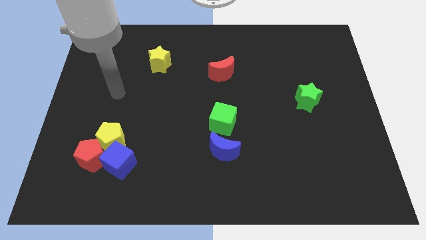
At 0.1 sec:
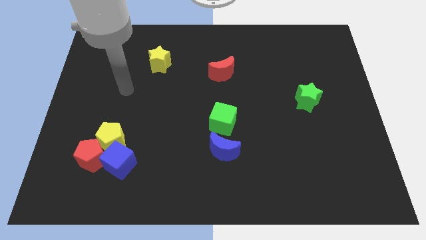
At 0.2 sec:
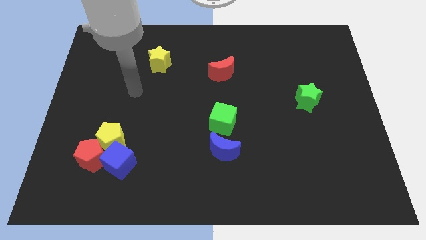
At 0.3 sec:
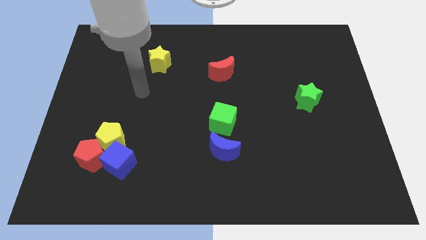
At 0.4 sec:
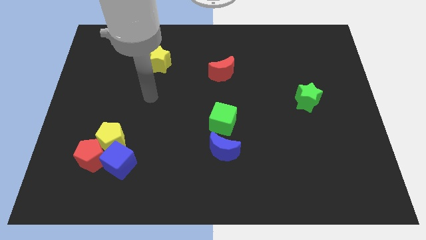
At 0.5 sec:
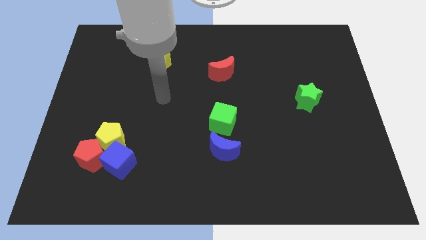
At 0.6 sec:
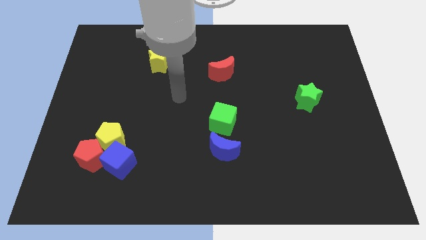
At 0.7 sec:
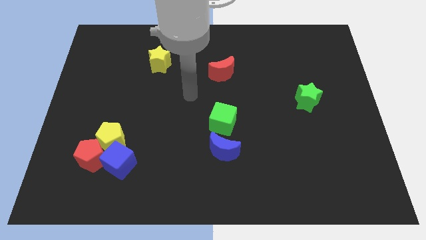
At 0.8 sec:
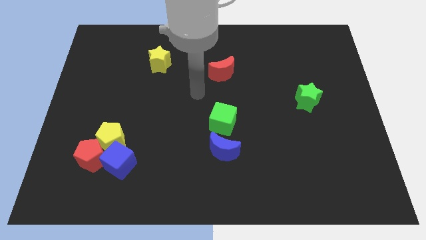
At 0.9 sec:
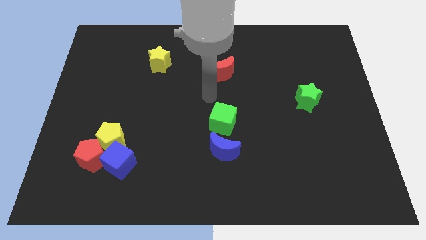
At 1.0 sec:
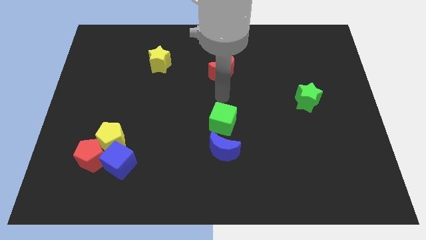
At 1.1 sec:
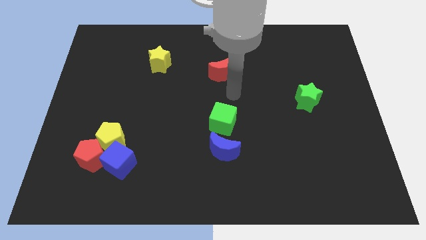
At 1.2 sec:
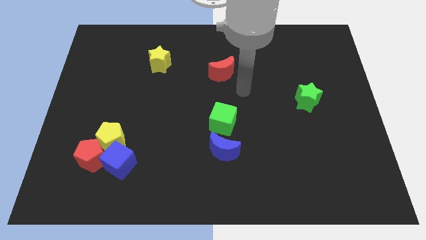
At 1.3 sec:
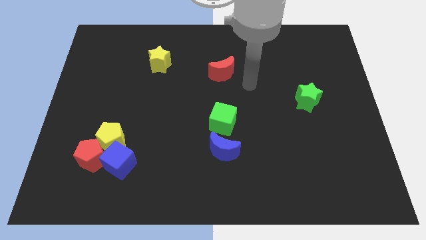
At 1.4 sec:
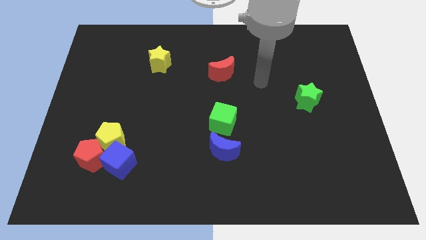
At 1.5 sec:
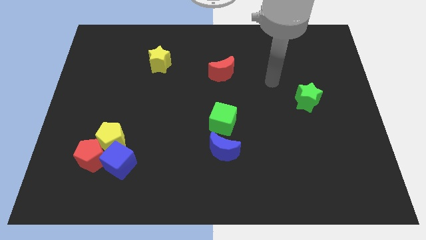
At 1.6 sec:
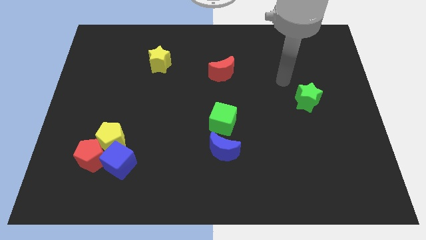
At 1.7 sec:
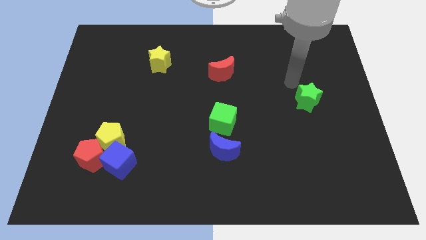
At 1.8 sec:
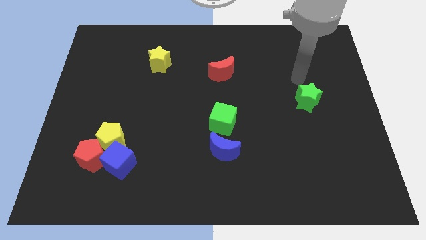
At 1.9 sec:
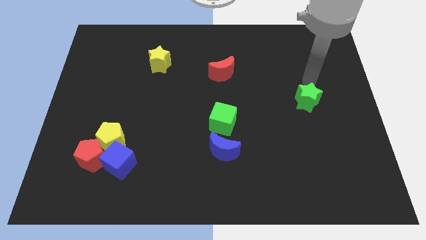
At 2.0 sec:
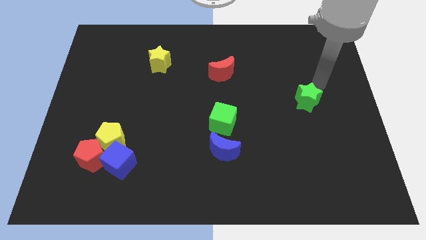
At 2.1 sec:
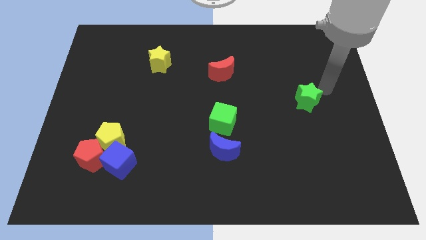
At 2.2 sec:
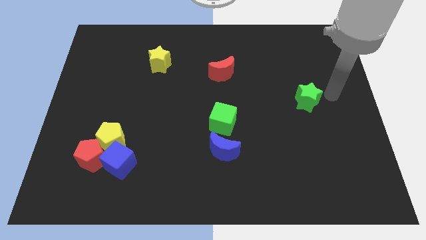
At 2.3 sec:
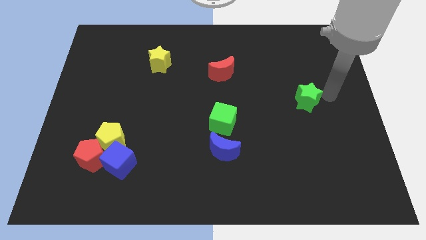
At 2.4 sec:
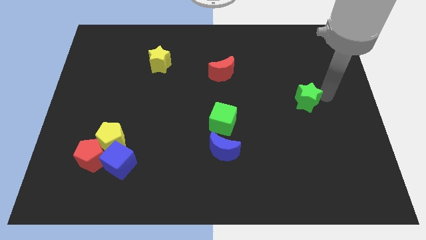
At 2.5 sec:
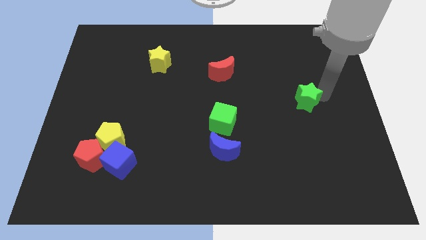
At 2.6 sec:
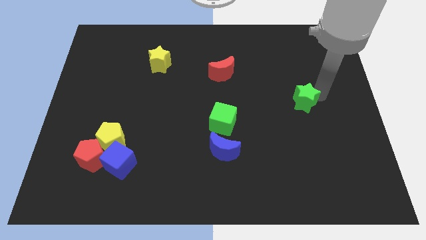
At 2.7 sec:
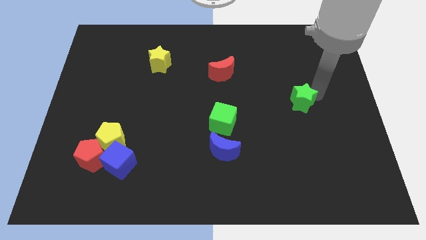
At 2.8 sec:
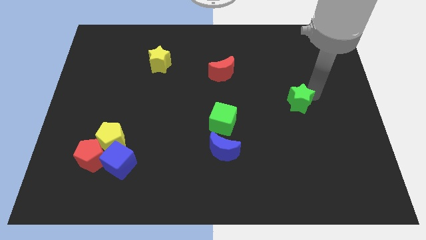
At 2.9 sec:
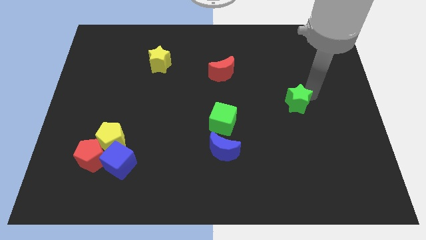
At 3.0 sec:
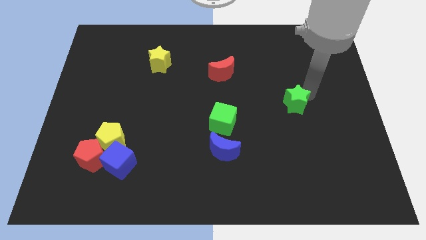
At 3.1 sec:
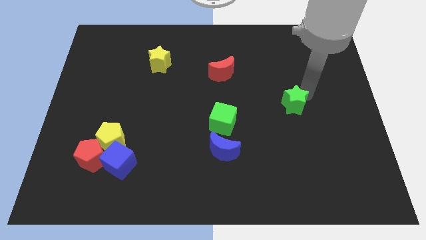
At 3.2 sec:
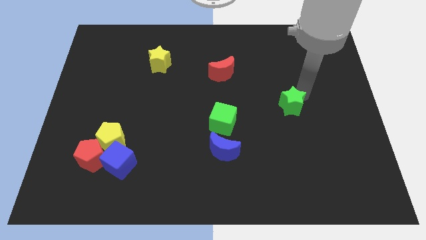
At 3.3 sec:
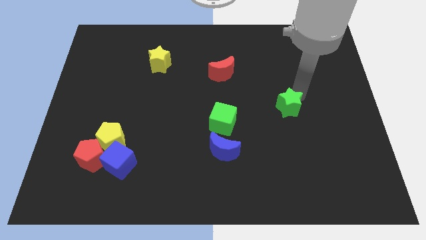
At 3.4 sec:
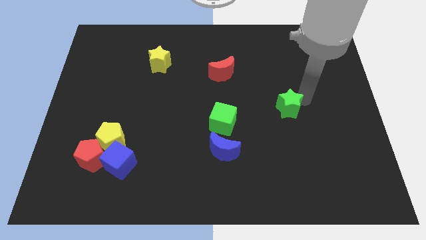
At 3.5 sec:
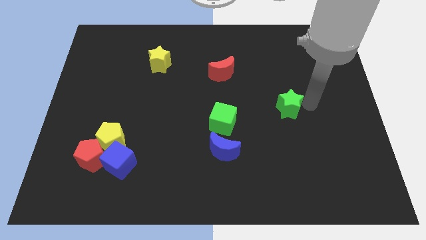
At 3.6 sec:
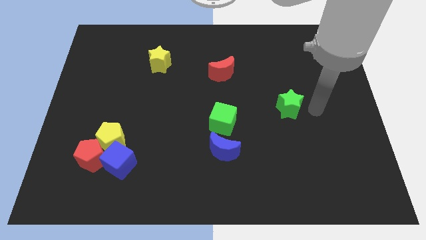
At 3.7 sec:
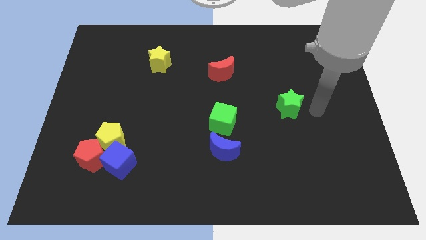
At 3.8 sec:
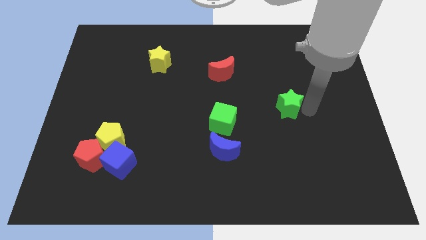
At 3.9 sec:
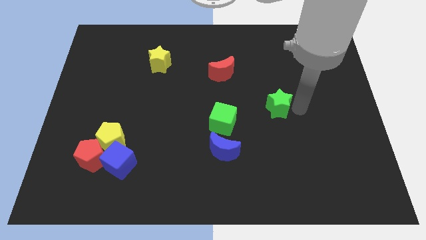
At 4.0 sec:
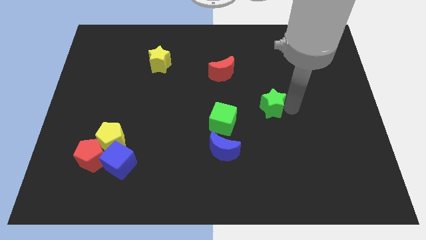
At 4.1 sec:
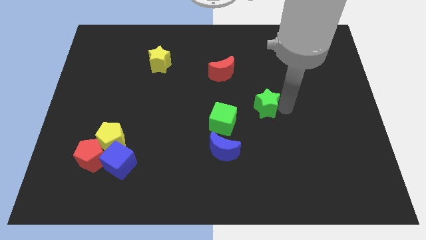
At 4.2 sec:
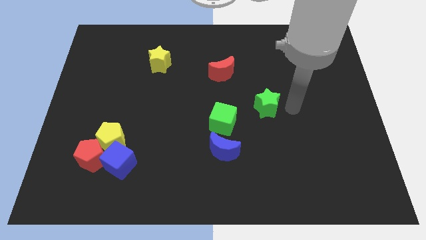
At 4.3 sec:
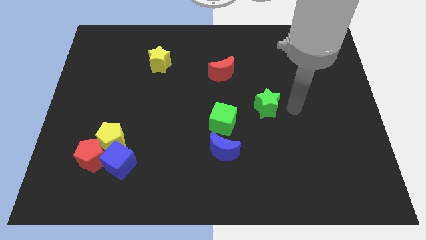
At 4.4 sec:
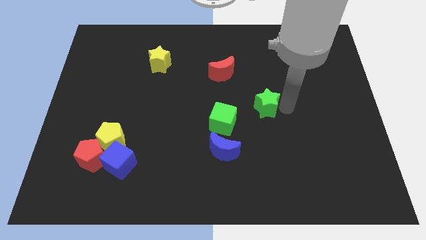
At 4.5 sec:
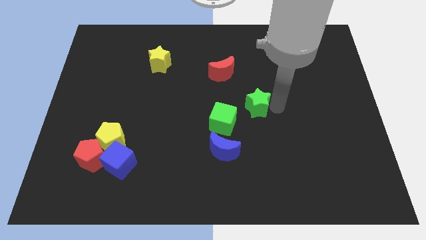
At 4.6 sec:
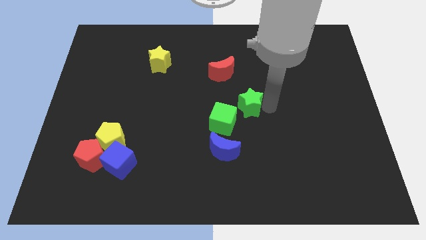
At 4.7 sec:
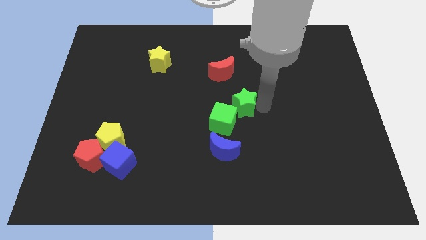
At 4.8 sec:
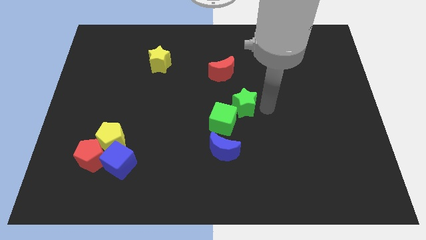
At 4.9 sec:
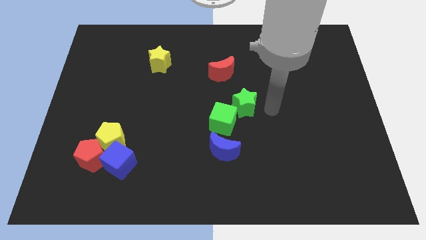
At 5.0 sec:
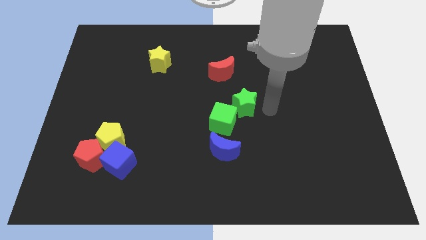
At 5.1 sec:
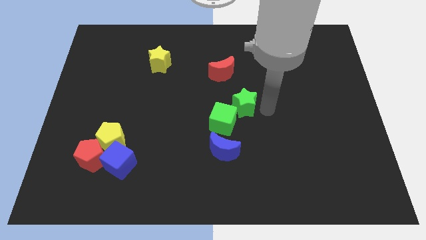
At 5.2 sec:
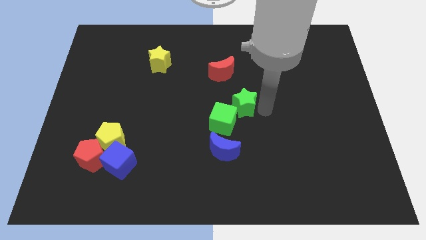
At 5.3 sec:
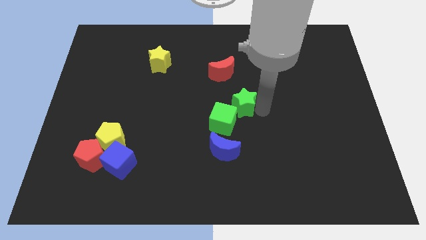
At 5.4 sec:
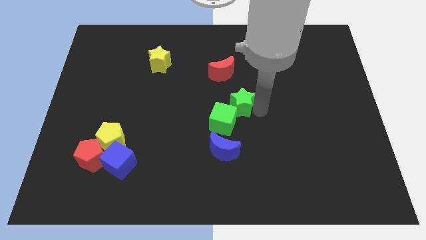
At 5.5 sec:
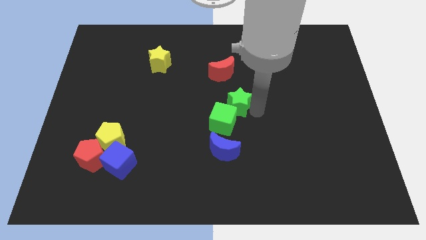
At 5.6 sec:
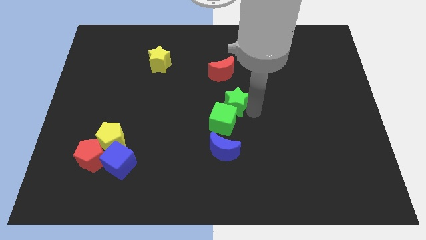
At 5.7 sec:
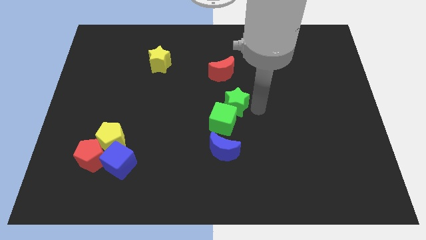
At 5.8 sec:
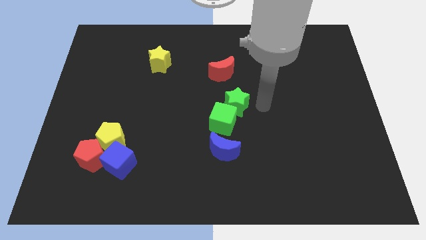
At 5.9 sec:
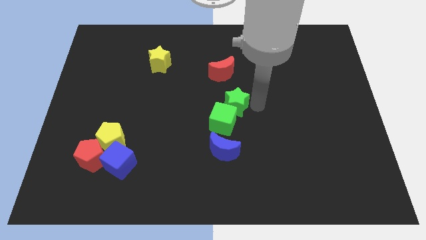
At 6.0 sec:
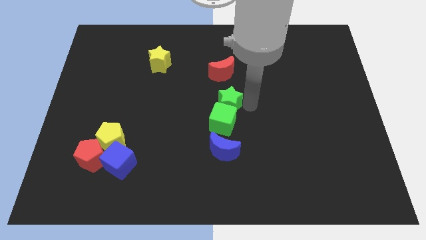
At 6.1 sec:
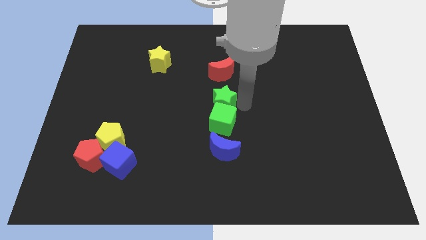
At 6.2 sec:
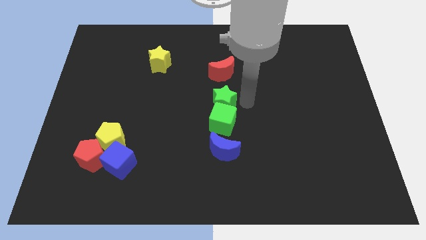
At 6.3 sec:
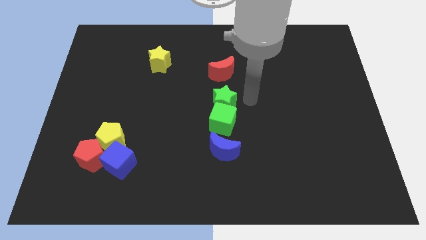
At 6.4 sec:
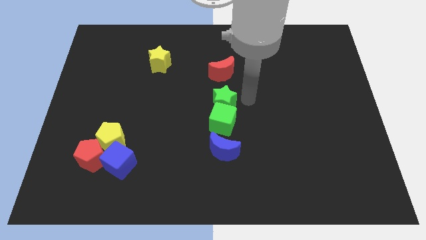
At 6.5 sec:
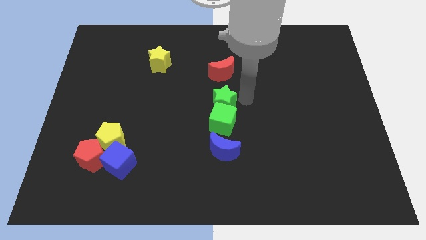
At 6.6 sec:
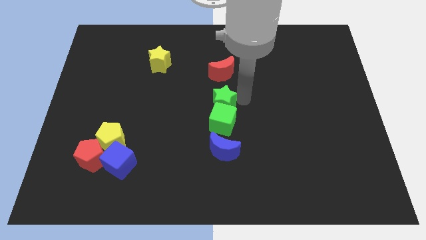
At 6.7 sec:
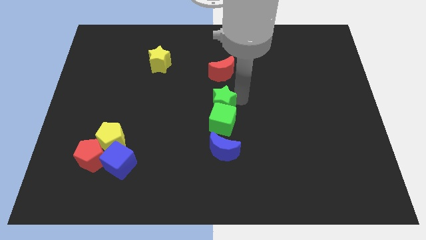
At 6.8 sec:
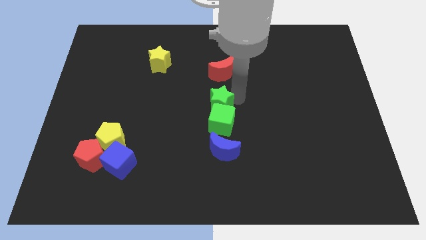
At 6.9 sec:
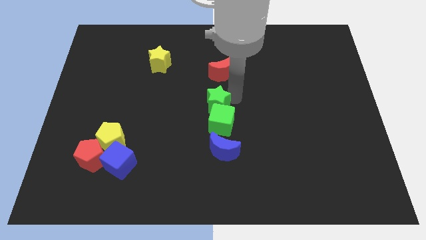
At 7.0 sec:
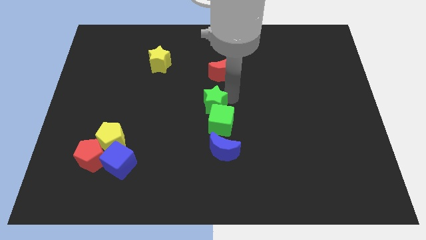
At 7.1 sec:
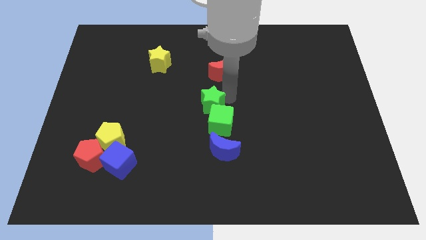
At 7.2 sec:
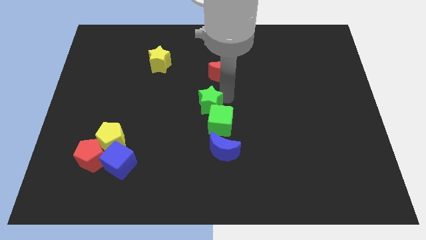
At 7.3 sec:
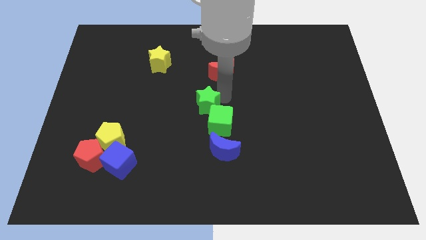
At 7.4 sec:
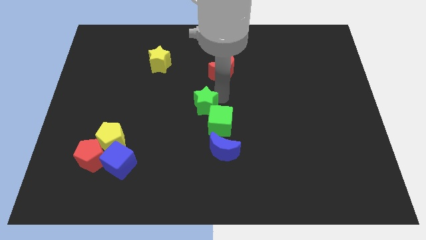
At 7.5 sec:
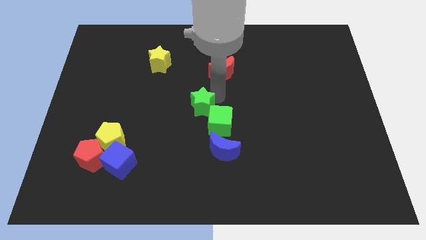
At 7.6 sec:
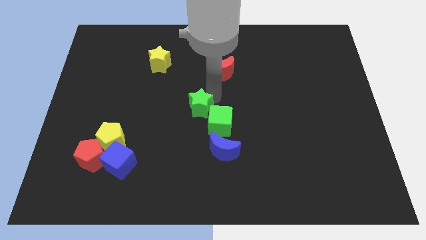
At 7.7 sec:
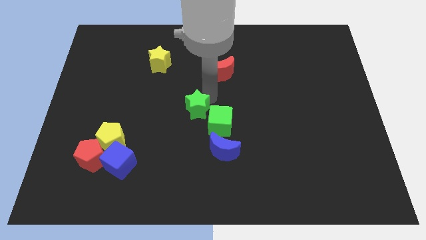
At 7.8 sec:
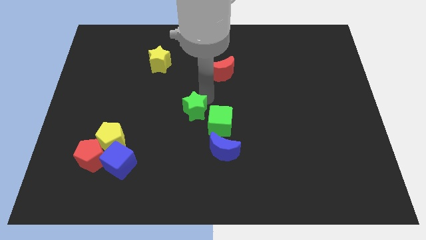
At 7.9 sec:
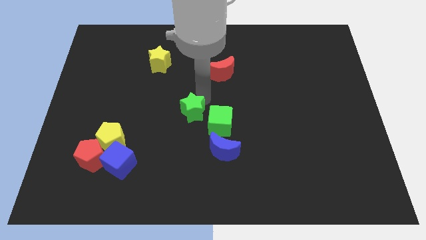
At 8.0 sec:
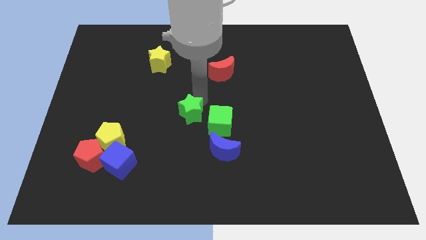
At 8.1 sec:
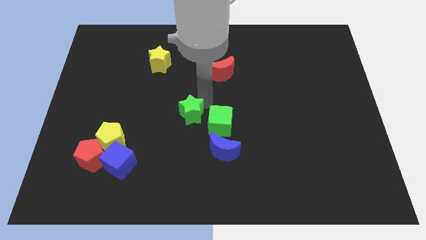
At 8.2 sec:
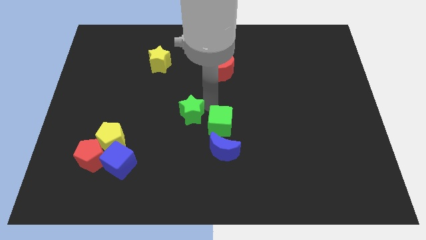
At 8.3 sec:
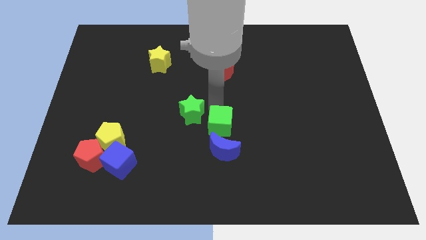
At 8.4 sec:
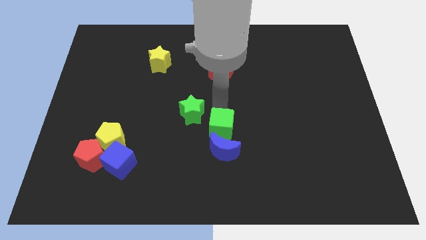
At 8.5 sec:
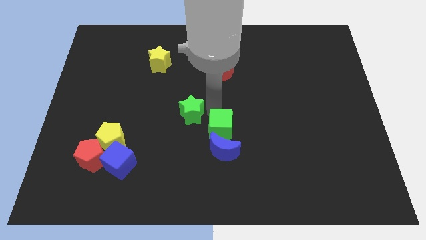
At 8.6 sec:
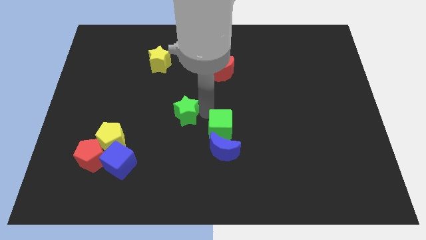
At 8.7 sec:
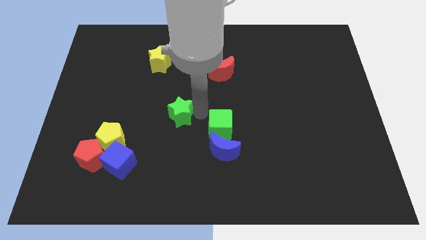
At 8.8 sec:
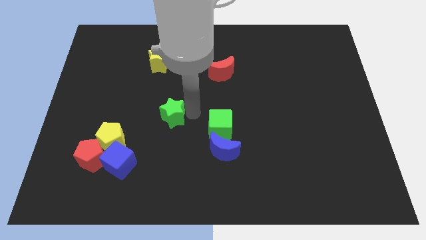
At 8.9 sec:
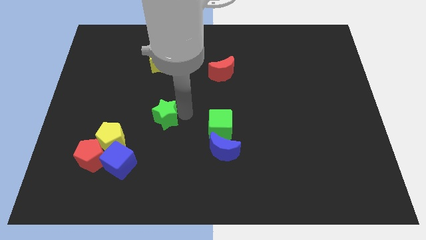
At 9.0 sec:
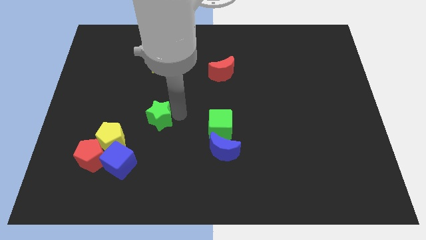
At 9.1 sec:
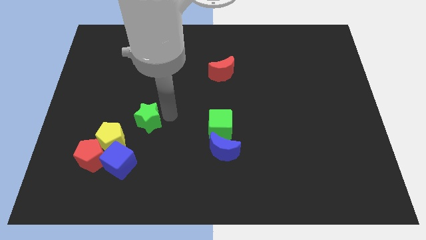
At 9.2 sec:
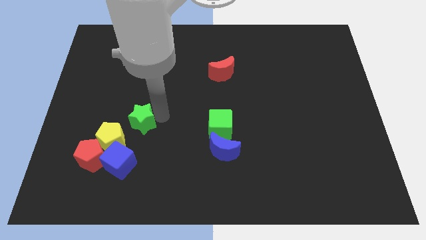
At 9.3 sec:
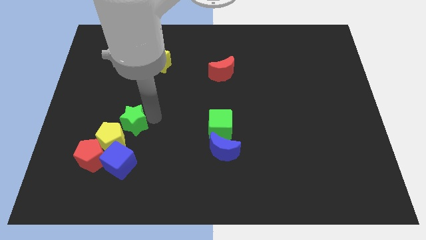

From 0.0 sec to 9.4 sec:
move the green star diagonally up and to the right of the red pentagon
